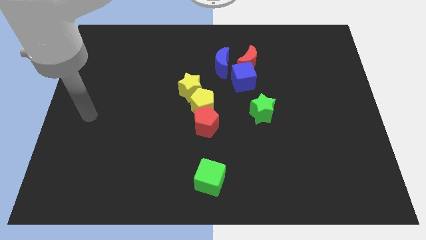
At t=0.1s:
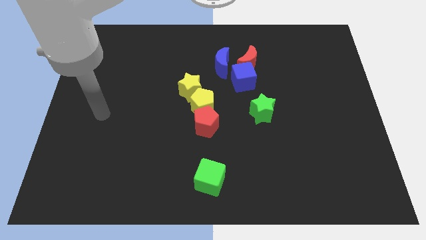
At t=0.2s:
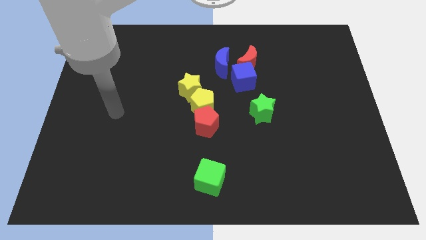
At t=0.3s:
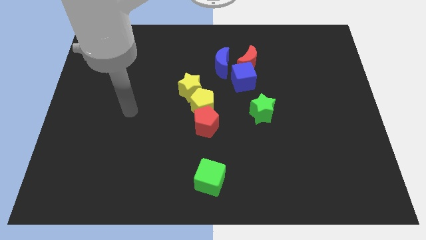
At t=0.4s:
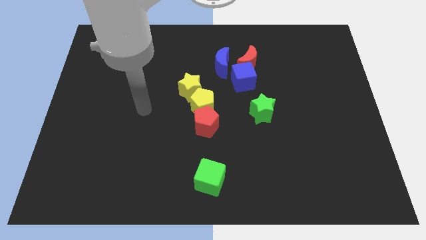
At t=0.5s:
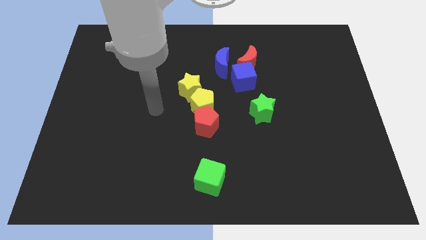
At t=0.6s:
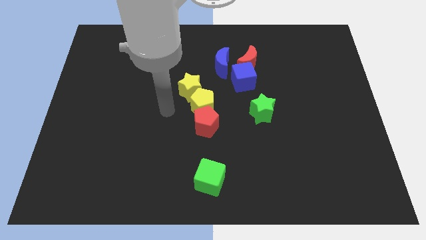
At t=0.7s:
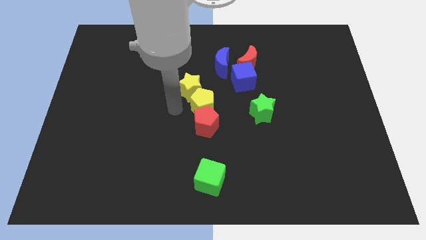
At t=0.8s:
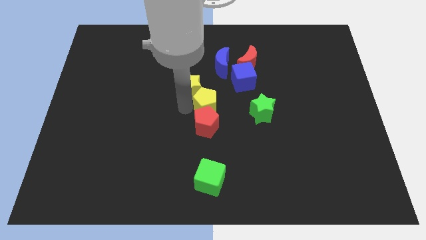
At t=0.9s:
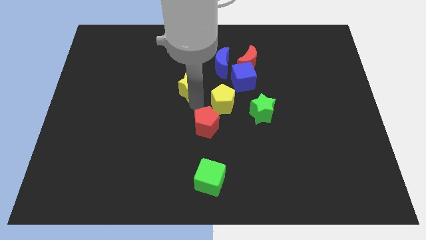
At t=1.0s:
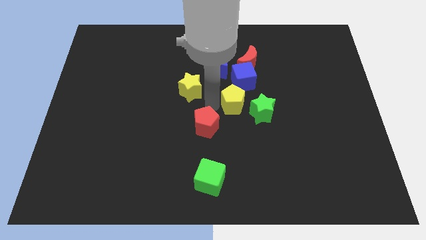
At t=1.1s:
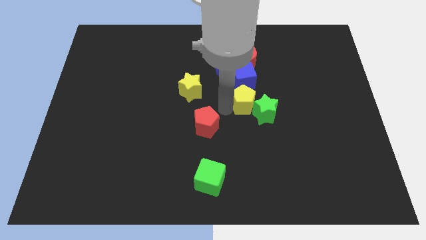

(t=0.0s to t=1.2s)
separate the red pentagon from the yellow pentagon

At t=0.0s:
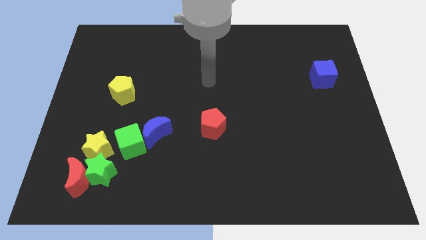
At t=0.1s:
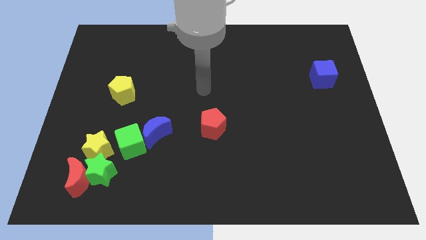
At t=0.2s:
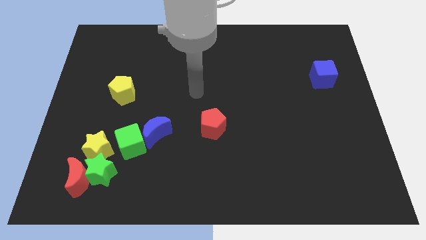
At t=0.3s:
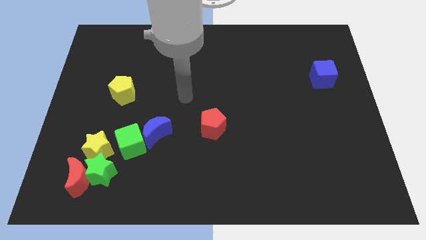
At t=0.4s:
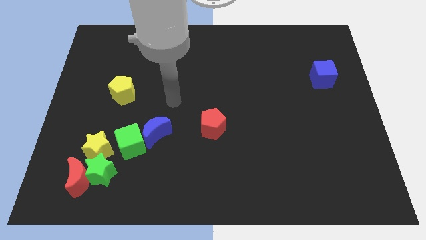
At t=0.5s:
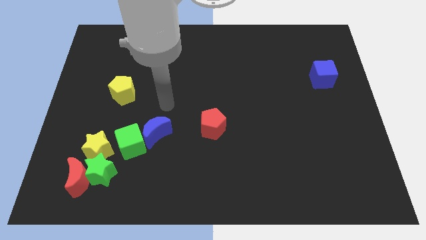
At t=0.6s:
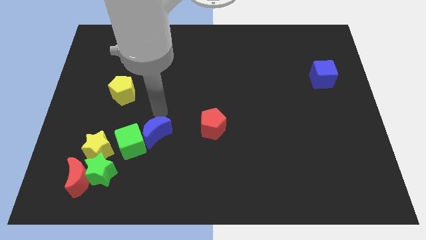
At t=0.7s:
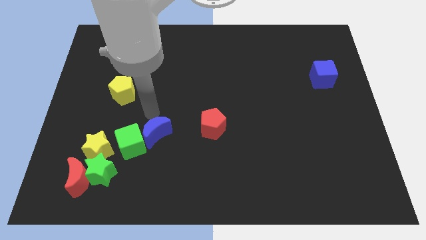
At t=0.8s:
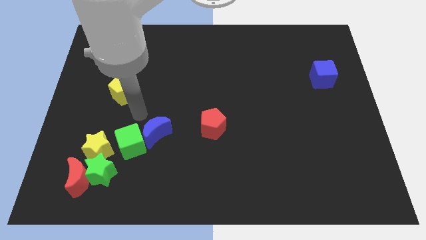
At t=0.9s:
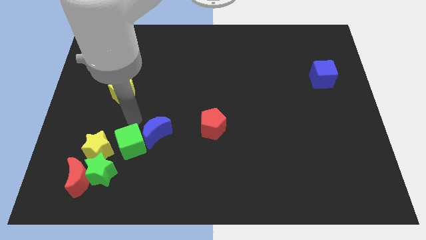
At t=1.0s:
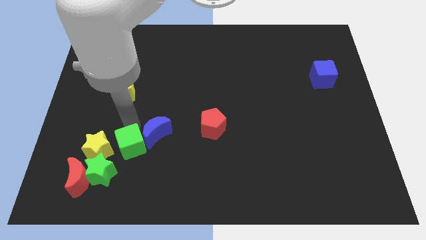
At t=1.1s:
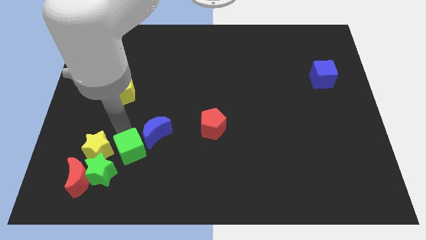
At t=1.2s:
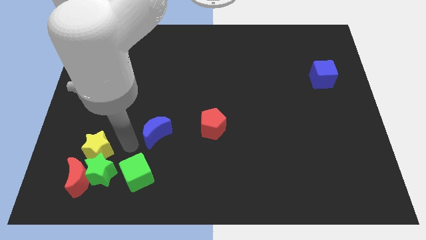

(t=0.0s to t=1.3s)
pull the blue moon apart from the green cube

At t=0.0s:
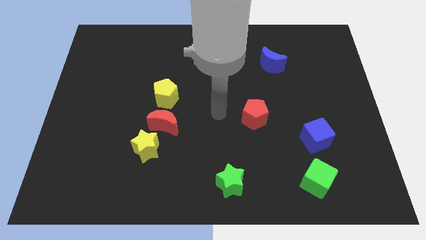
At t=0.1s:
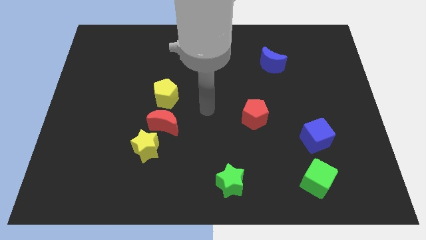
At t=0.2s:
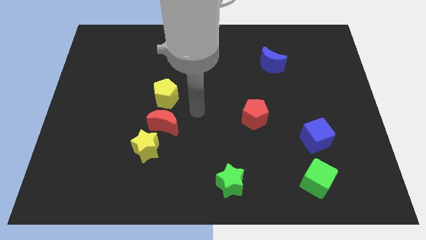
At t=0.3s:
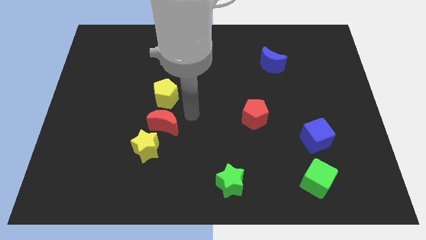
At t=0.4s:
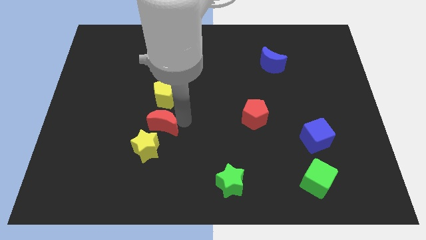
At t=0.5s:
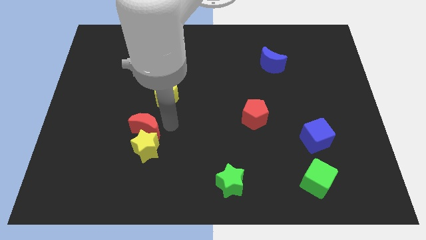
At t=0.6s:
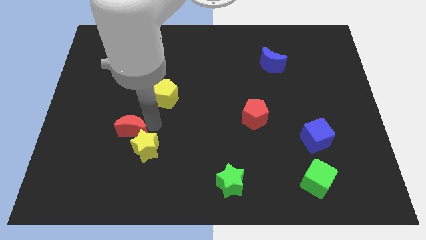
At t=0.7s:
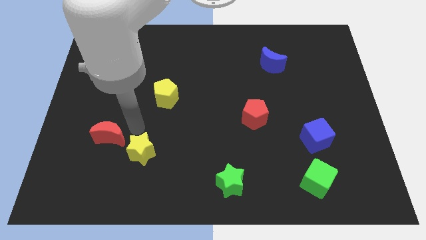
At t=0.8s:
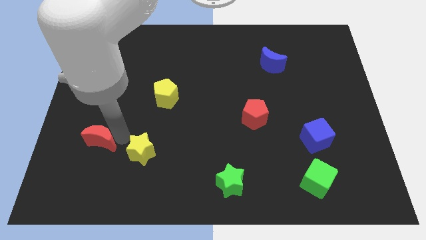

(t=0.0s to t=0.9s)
separate the yellow star from the red moon

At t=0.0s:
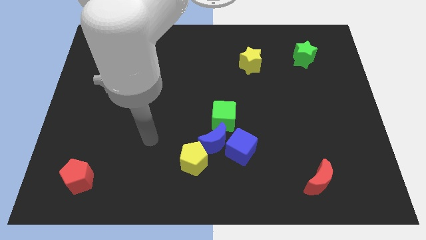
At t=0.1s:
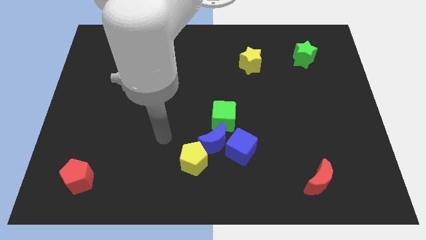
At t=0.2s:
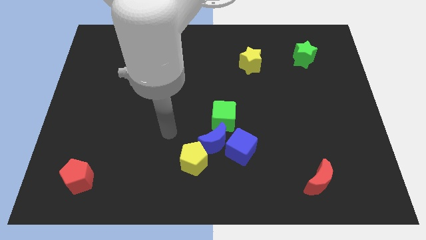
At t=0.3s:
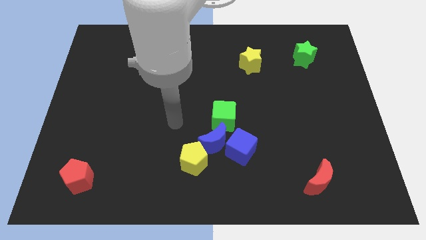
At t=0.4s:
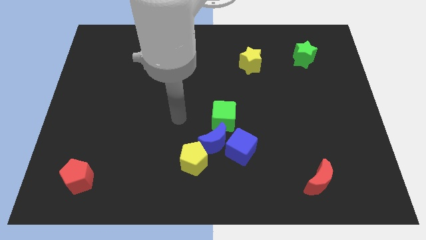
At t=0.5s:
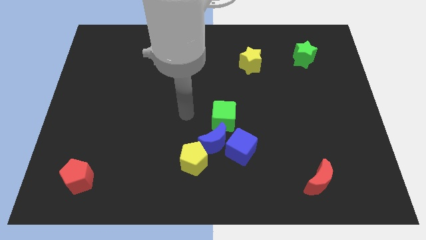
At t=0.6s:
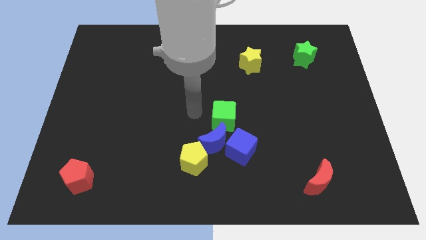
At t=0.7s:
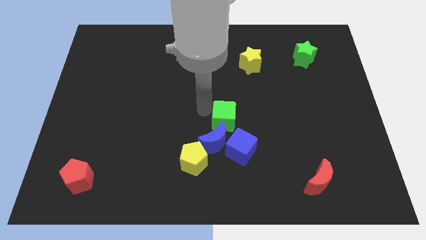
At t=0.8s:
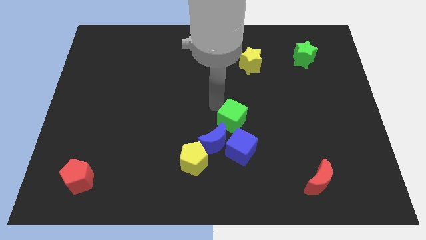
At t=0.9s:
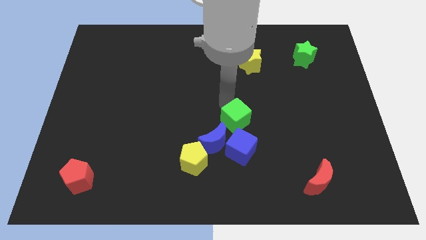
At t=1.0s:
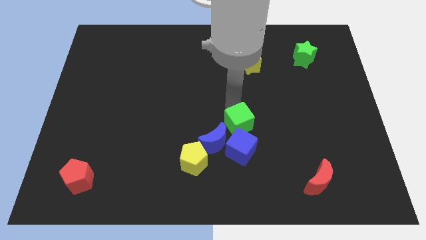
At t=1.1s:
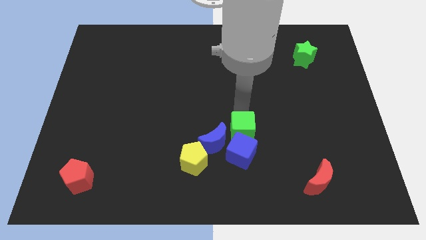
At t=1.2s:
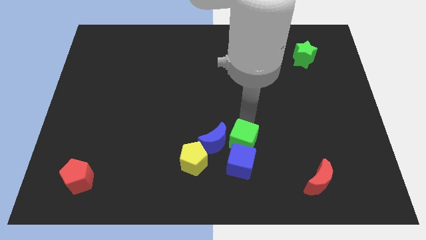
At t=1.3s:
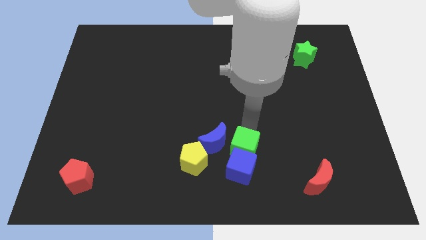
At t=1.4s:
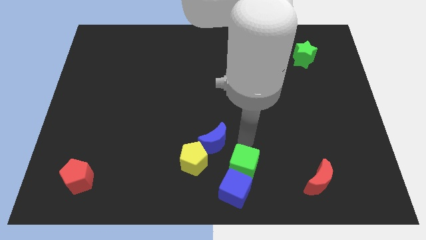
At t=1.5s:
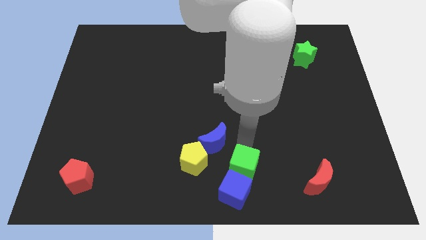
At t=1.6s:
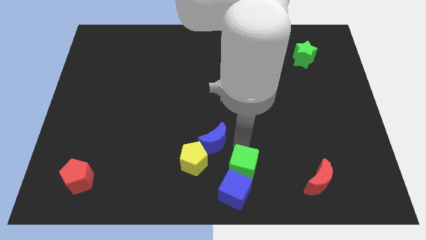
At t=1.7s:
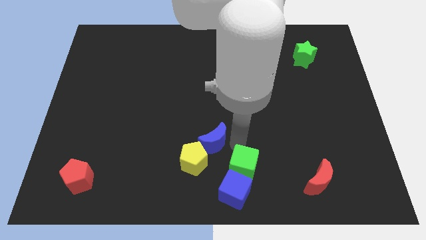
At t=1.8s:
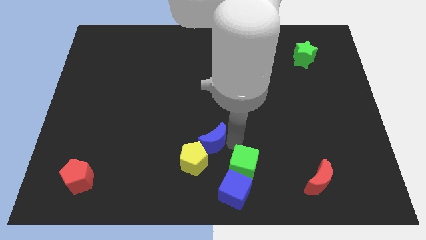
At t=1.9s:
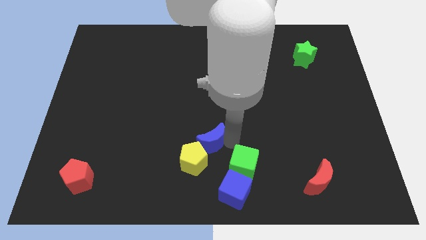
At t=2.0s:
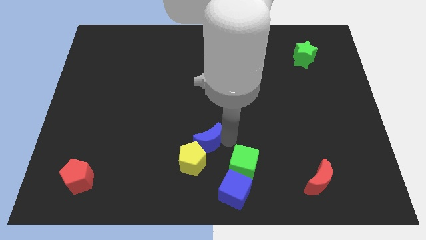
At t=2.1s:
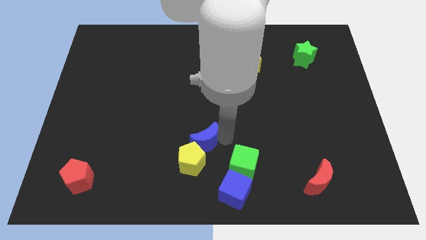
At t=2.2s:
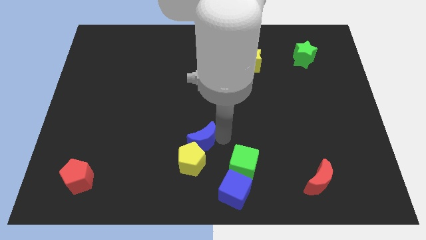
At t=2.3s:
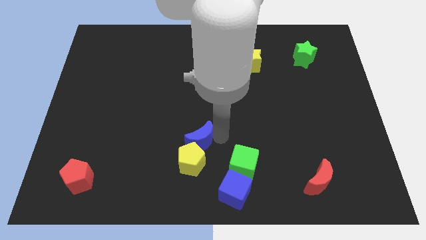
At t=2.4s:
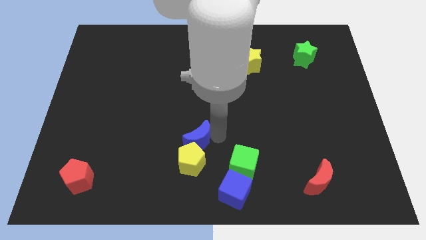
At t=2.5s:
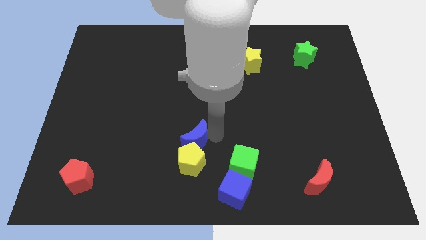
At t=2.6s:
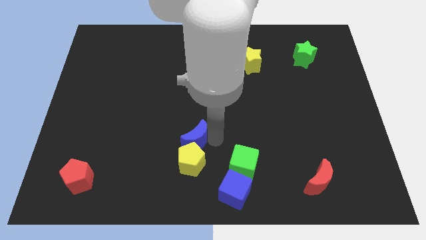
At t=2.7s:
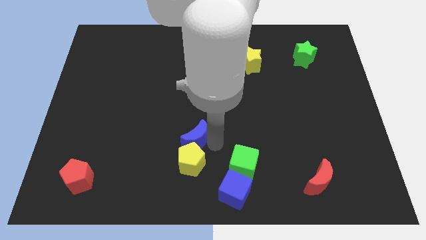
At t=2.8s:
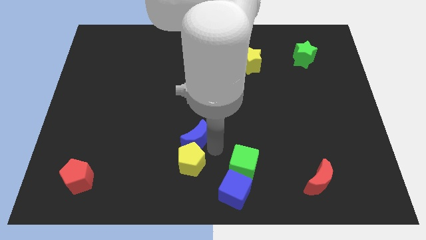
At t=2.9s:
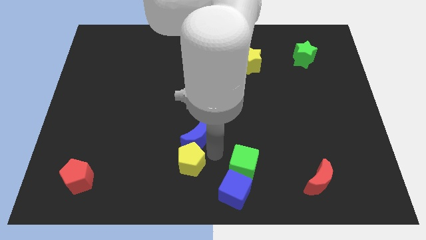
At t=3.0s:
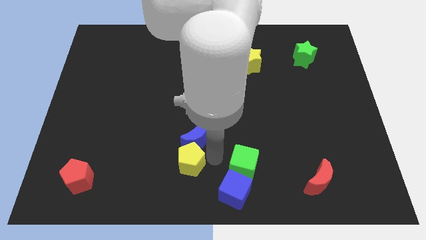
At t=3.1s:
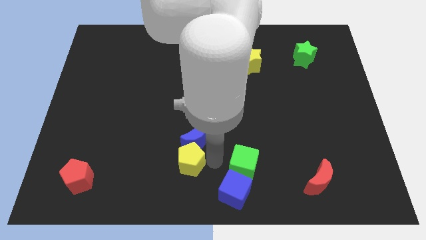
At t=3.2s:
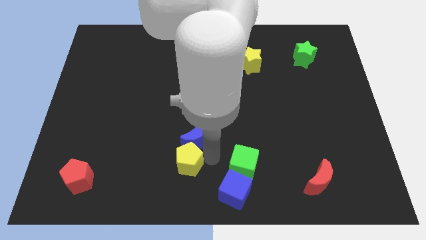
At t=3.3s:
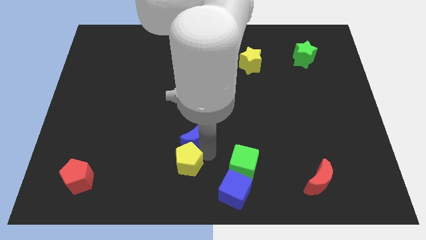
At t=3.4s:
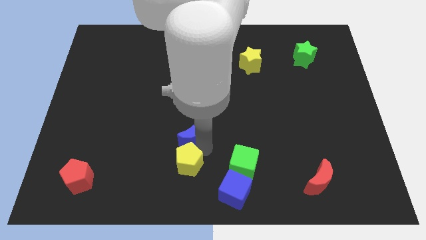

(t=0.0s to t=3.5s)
pull the blue moon apart from the blue cube, yellow pentagon, and green cube

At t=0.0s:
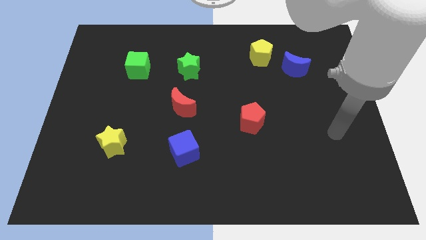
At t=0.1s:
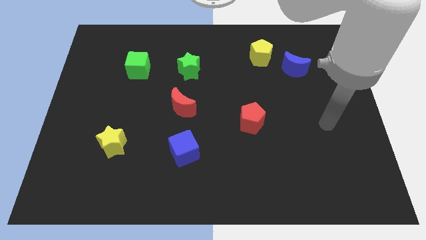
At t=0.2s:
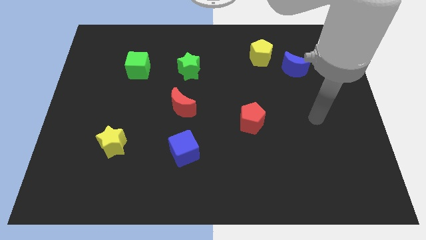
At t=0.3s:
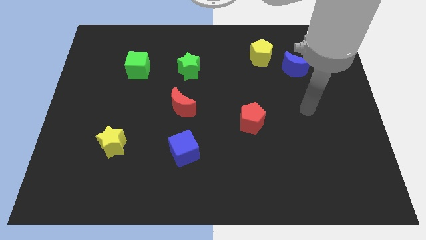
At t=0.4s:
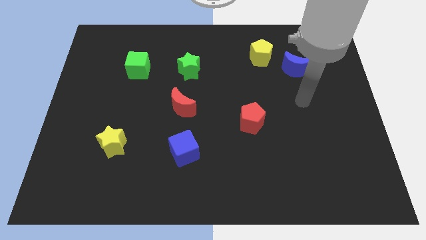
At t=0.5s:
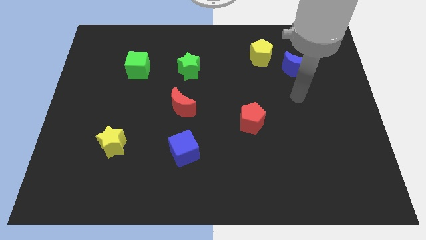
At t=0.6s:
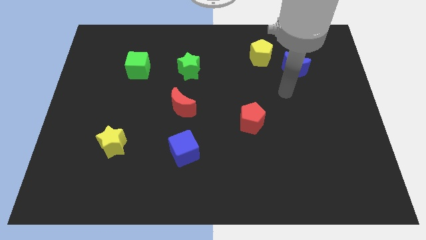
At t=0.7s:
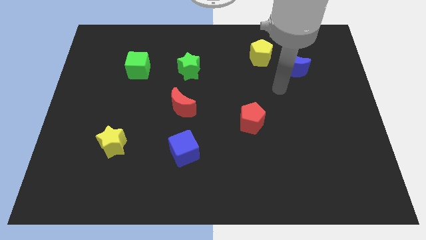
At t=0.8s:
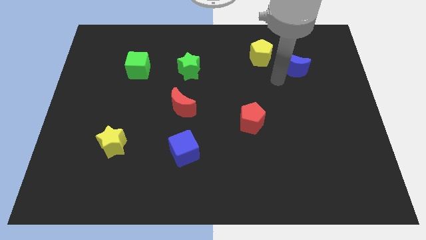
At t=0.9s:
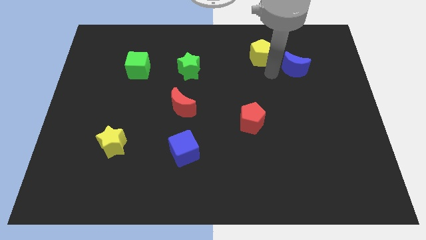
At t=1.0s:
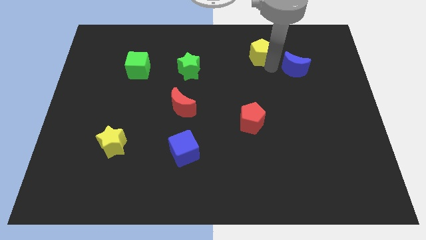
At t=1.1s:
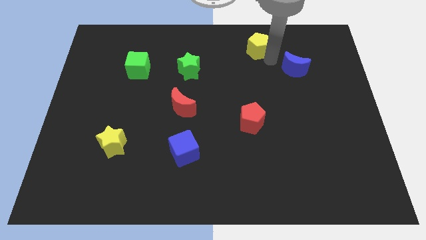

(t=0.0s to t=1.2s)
separate the blue moon from the yellow pentagon

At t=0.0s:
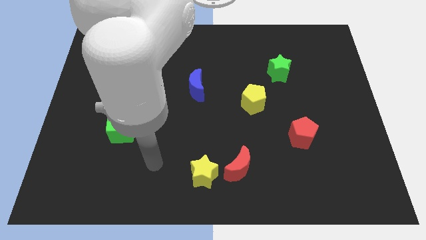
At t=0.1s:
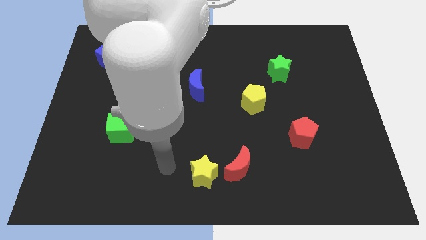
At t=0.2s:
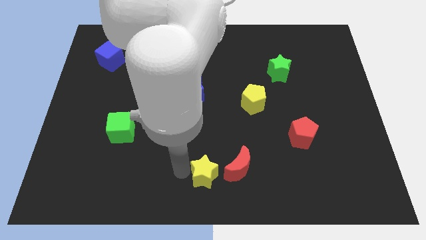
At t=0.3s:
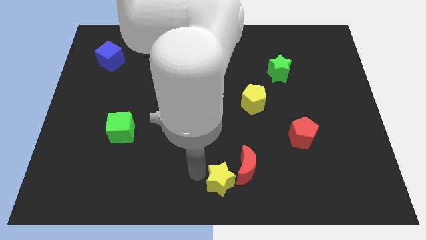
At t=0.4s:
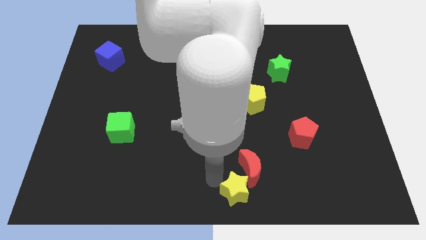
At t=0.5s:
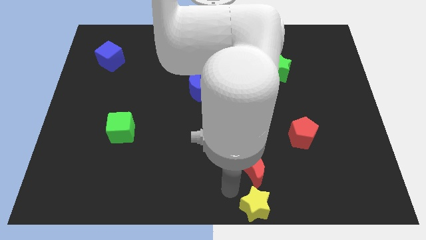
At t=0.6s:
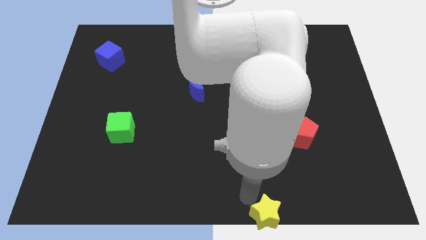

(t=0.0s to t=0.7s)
move the red moon away from the yellow star

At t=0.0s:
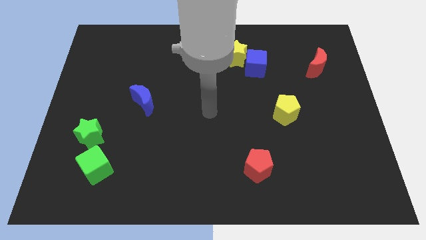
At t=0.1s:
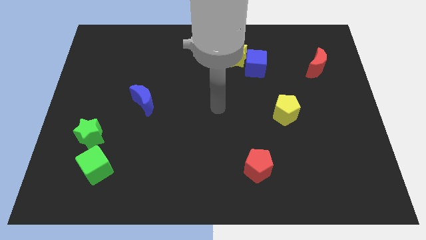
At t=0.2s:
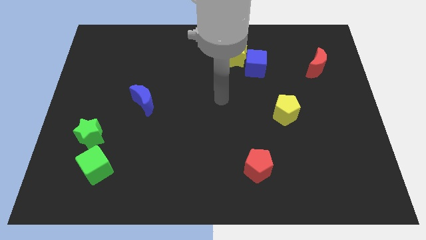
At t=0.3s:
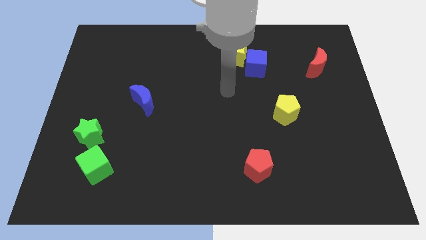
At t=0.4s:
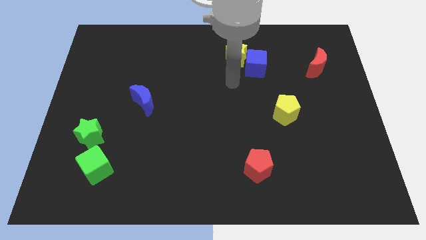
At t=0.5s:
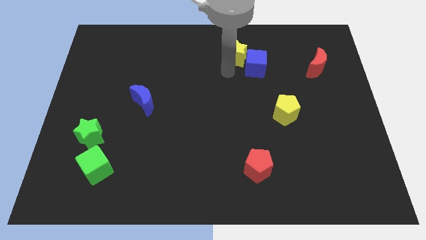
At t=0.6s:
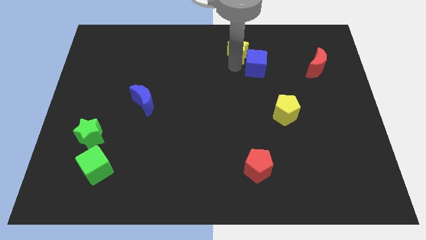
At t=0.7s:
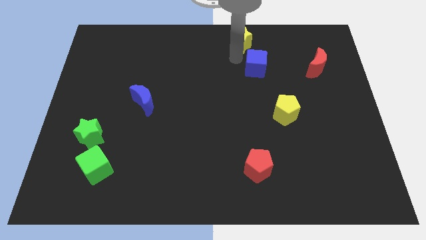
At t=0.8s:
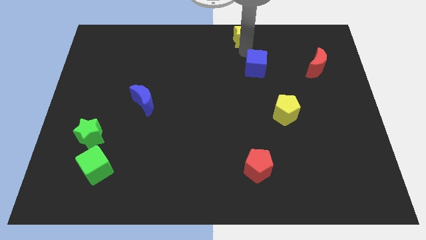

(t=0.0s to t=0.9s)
move the blue cube away from the yellow star
